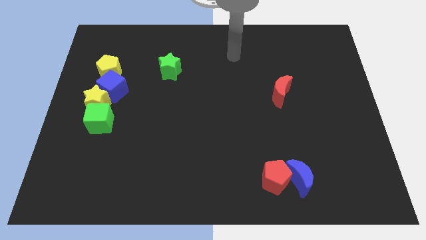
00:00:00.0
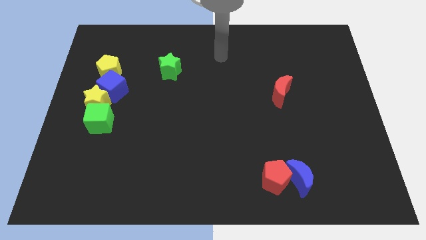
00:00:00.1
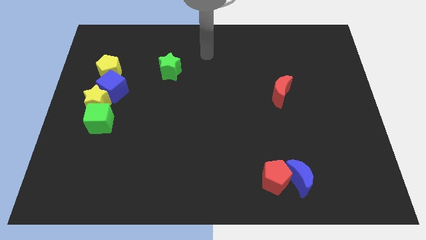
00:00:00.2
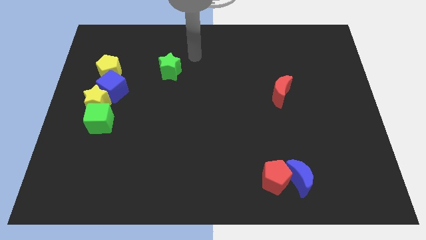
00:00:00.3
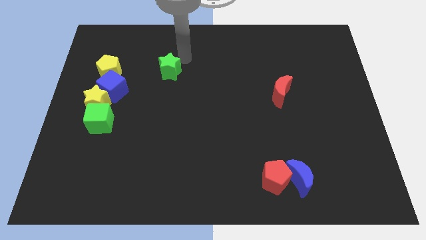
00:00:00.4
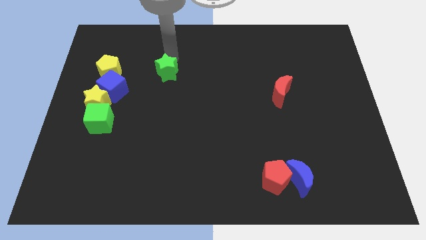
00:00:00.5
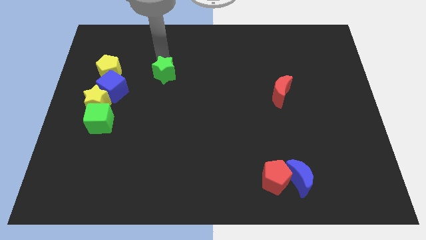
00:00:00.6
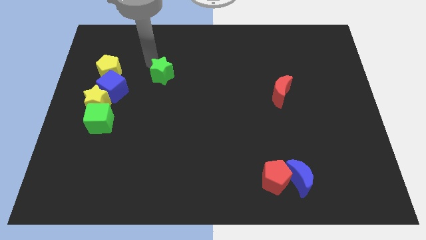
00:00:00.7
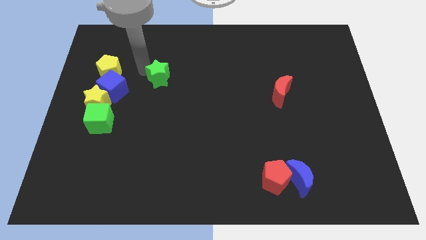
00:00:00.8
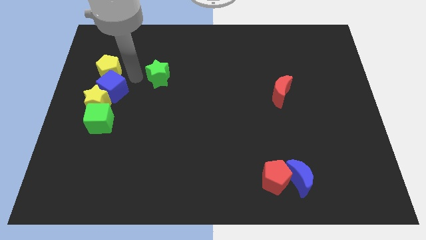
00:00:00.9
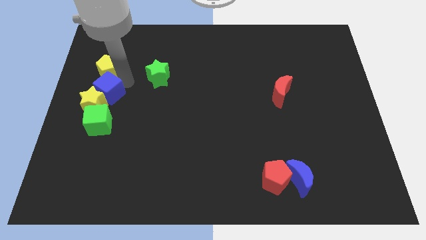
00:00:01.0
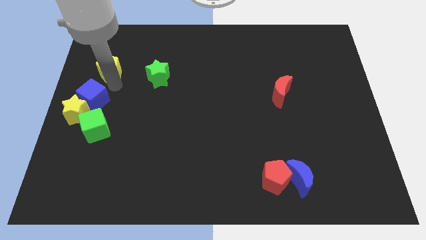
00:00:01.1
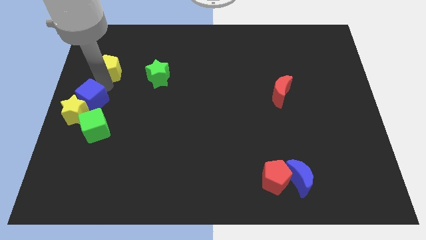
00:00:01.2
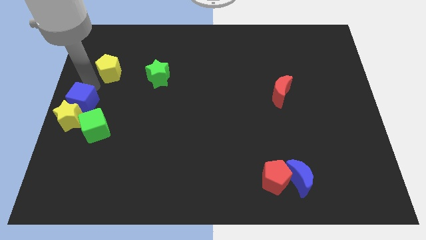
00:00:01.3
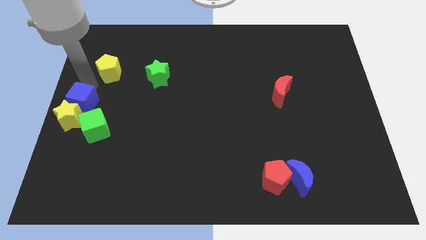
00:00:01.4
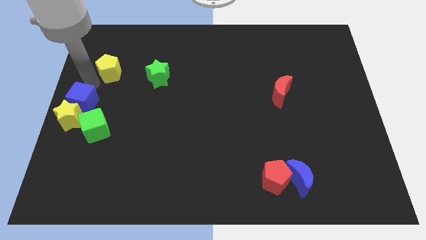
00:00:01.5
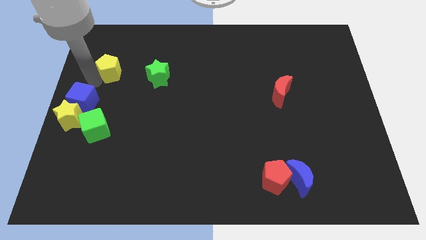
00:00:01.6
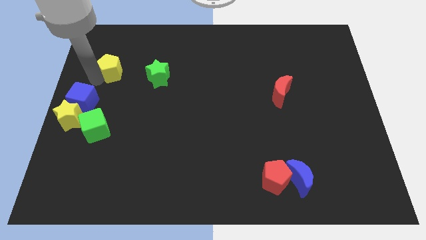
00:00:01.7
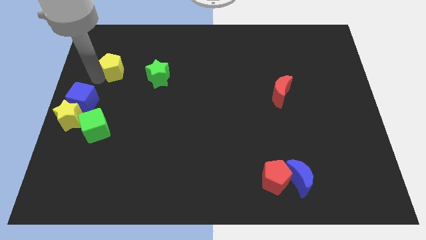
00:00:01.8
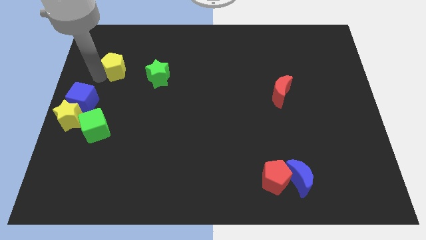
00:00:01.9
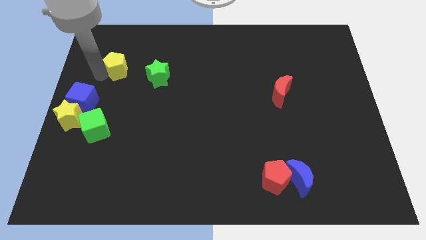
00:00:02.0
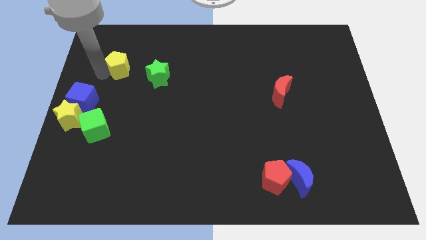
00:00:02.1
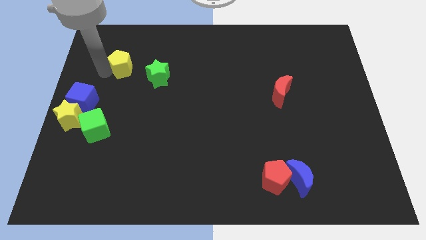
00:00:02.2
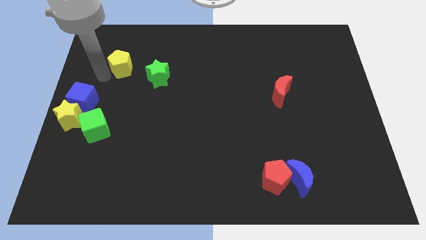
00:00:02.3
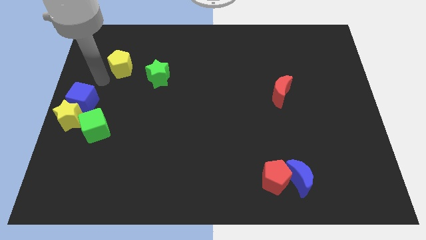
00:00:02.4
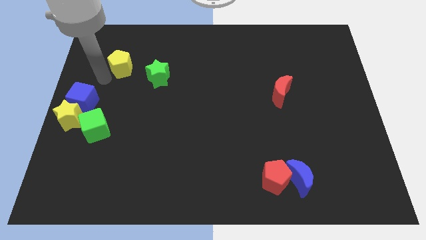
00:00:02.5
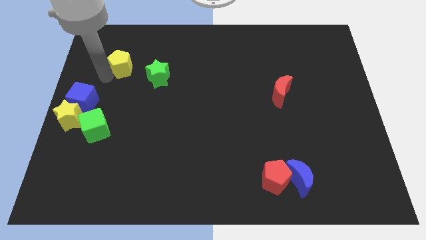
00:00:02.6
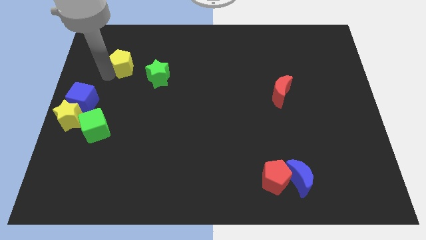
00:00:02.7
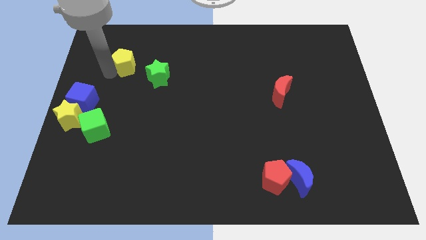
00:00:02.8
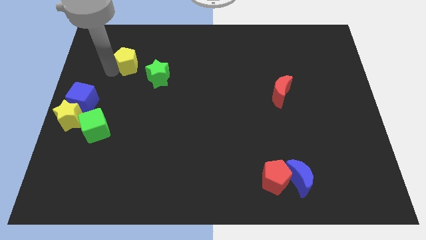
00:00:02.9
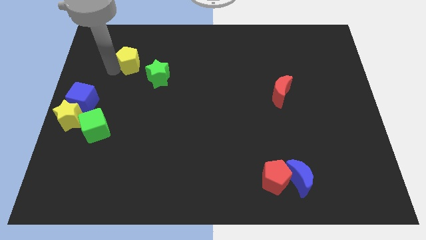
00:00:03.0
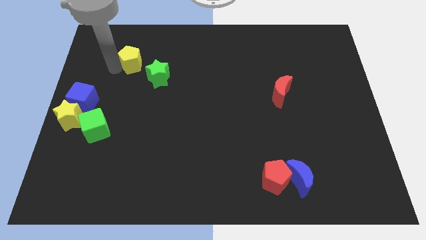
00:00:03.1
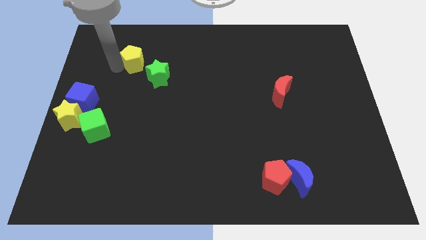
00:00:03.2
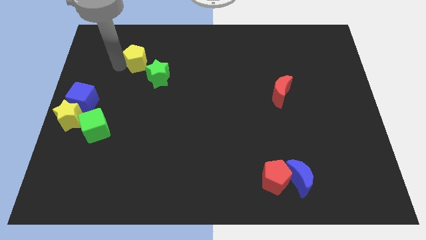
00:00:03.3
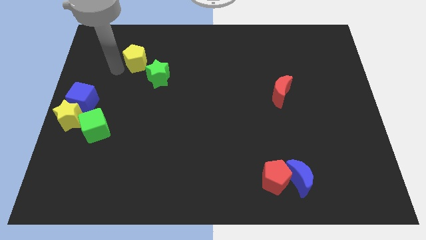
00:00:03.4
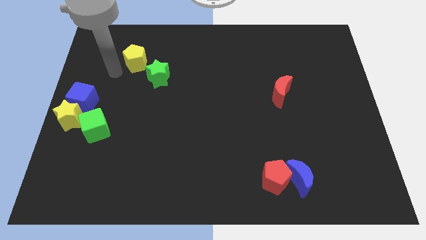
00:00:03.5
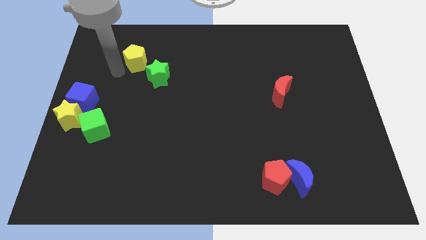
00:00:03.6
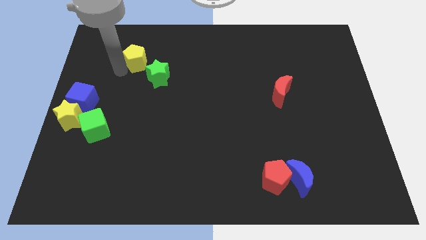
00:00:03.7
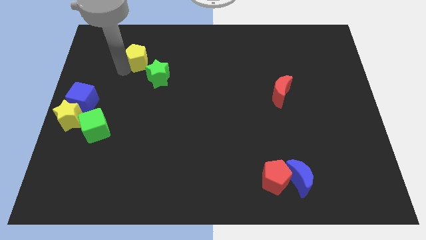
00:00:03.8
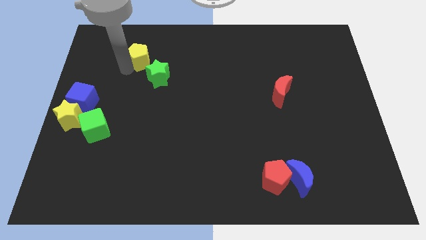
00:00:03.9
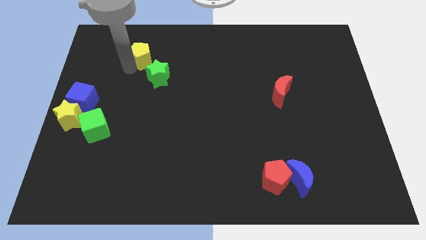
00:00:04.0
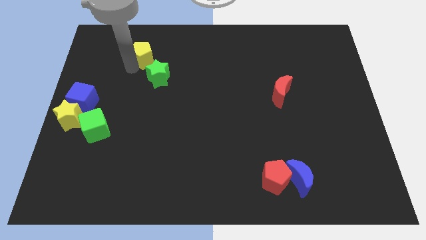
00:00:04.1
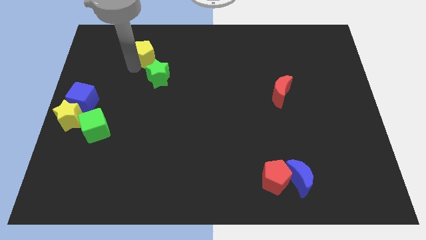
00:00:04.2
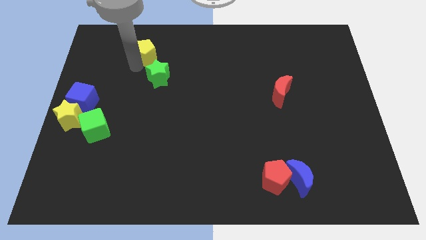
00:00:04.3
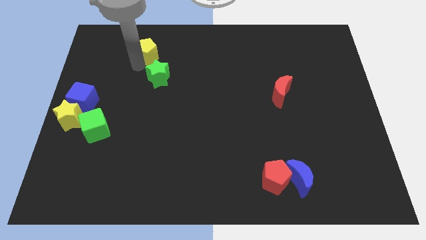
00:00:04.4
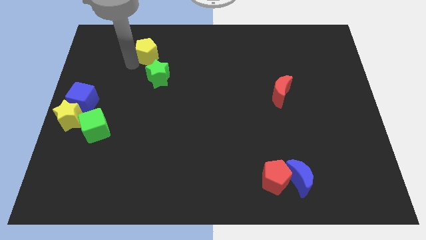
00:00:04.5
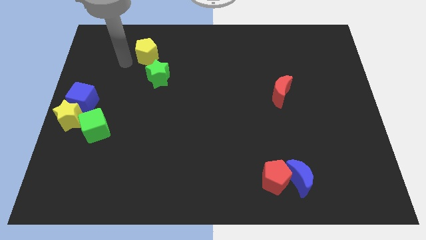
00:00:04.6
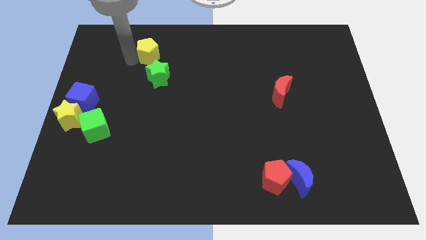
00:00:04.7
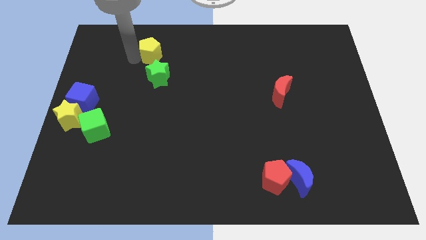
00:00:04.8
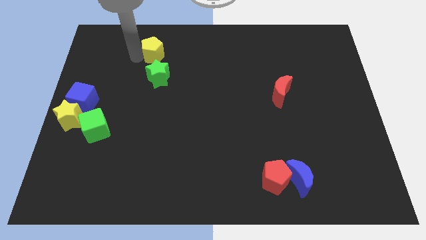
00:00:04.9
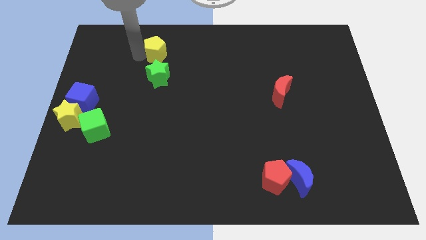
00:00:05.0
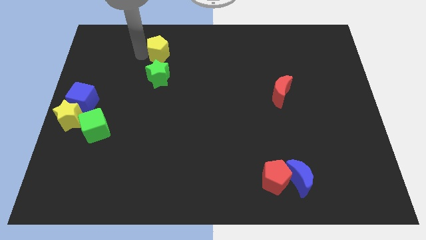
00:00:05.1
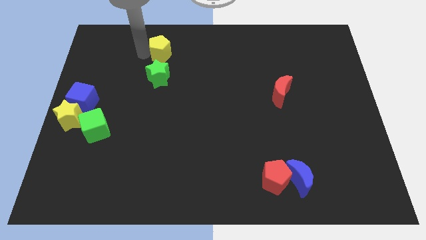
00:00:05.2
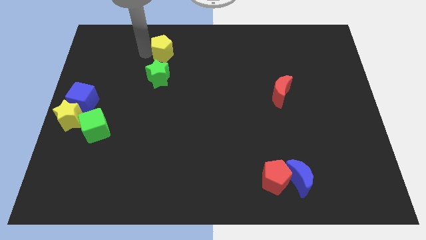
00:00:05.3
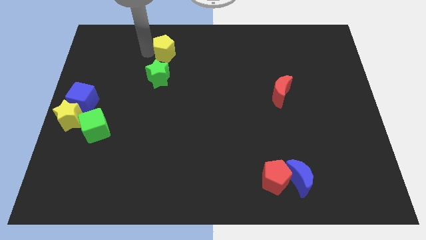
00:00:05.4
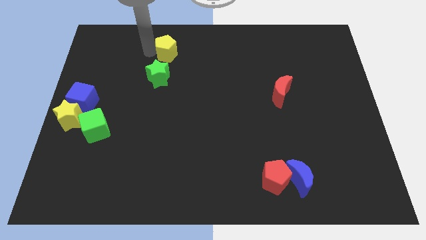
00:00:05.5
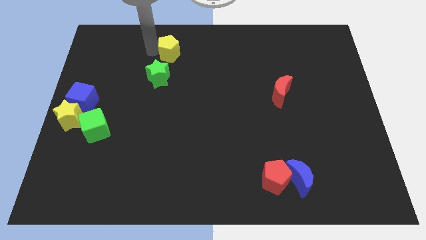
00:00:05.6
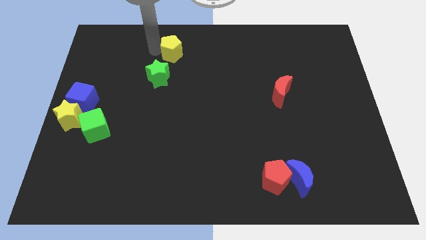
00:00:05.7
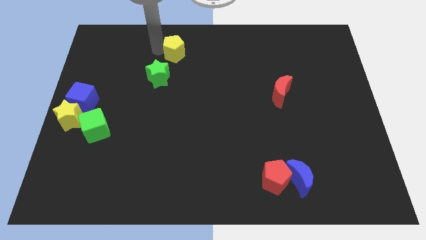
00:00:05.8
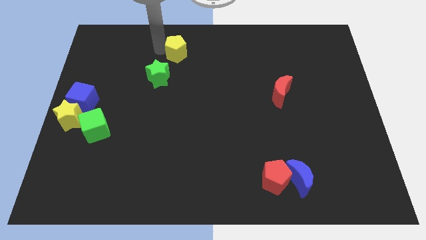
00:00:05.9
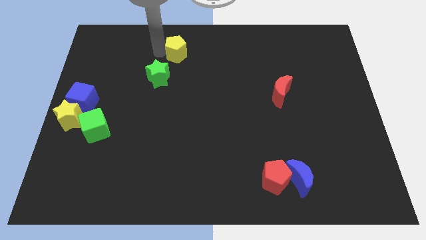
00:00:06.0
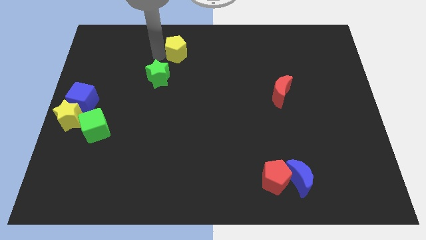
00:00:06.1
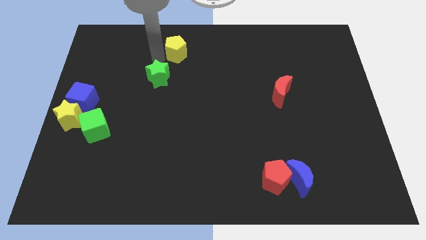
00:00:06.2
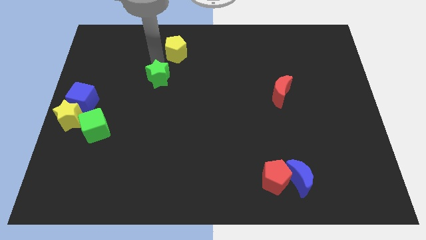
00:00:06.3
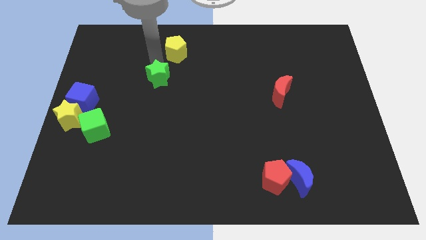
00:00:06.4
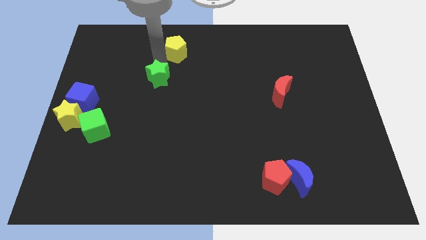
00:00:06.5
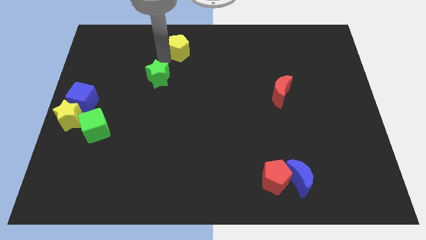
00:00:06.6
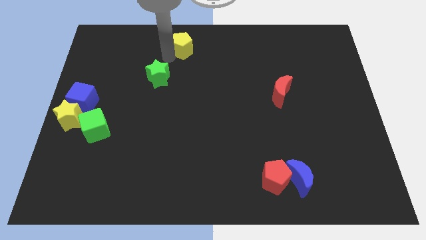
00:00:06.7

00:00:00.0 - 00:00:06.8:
move the yellow pentagon to the towards your base

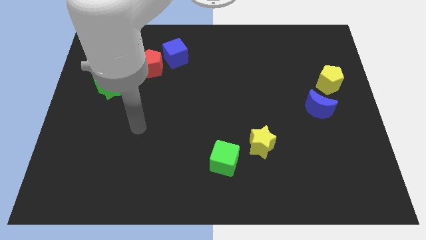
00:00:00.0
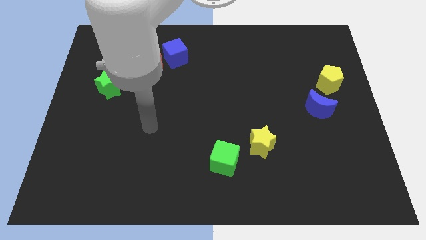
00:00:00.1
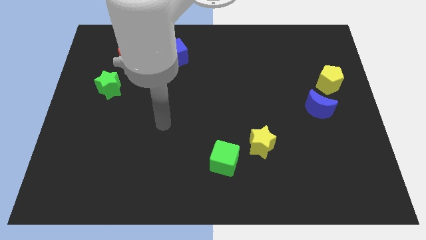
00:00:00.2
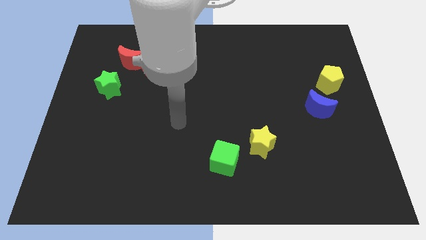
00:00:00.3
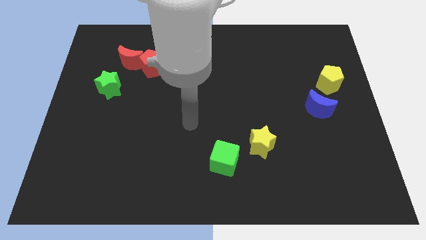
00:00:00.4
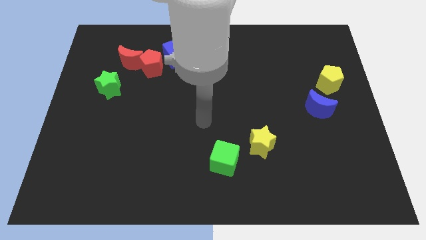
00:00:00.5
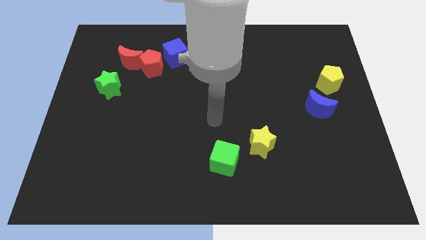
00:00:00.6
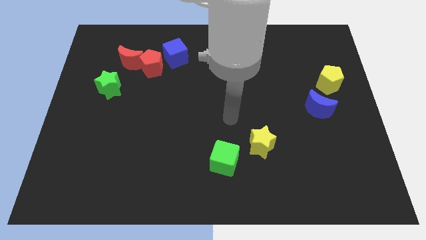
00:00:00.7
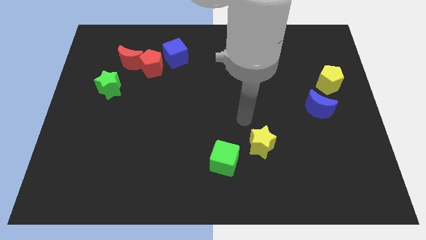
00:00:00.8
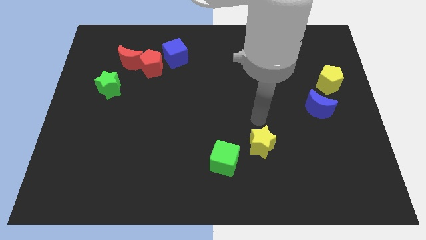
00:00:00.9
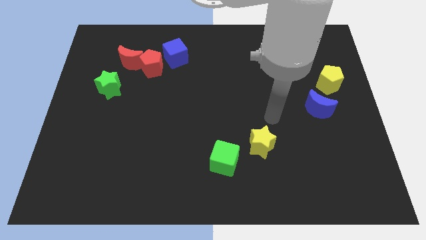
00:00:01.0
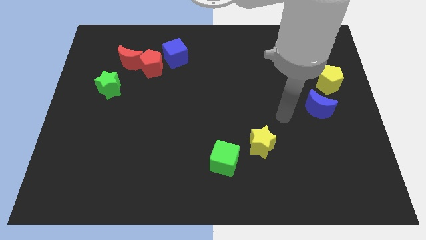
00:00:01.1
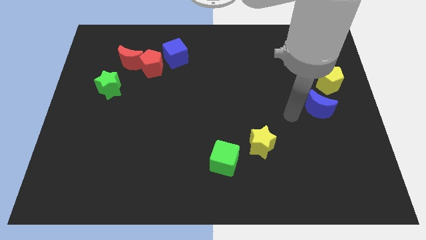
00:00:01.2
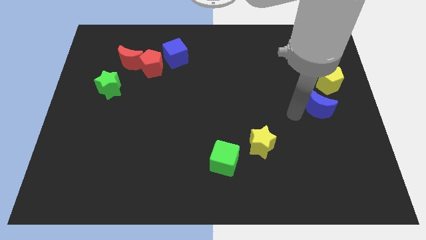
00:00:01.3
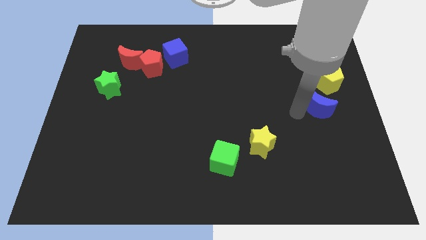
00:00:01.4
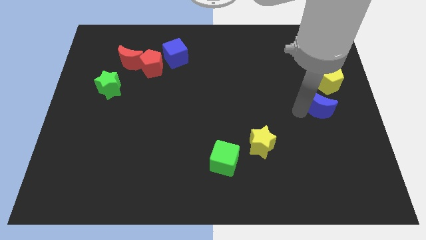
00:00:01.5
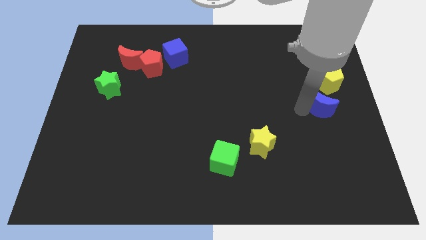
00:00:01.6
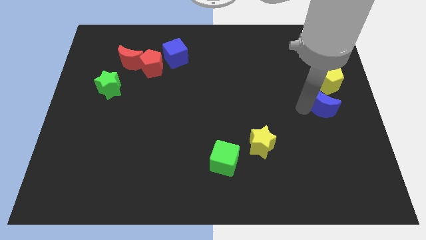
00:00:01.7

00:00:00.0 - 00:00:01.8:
move the blue moon to the center right
